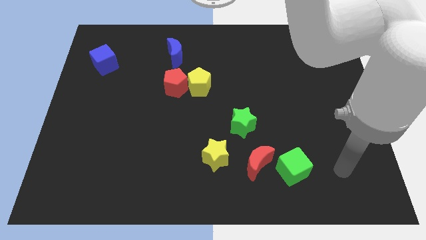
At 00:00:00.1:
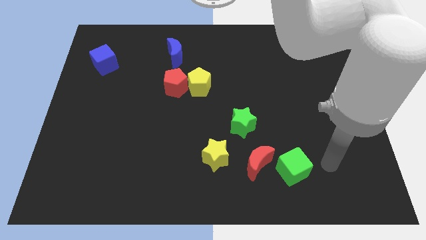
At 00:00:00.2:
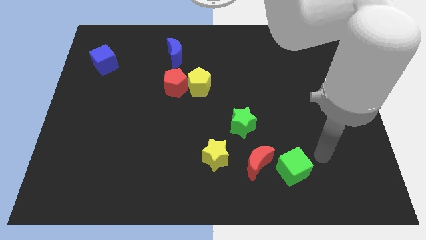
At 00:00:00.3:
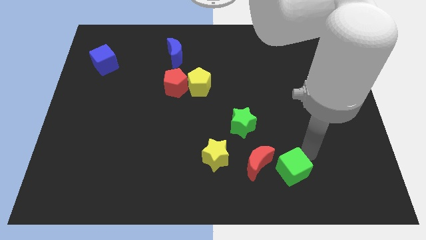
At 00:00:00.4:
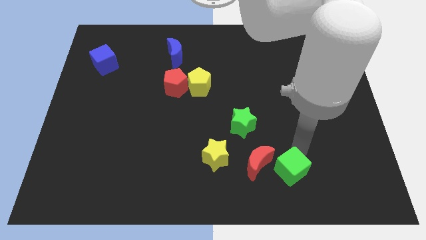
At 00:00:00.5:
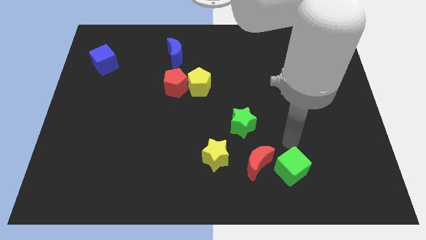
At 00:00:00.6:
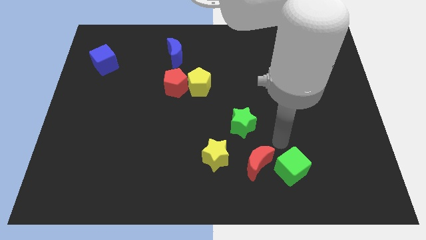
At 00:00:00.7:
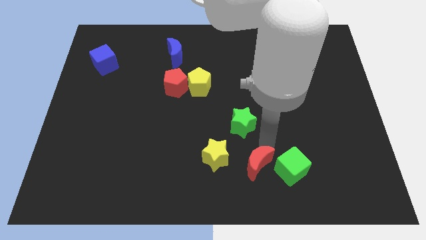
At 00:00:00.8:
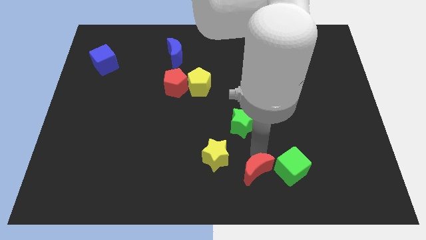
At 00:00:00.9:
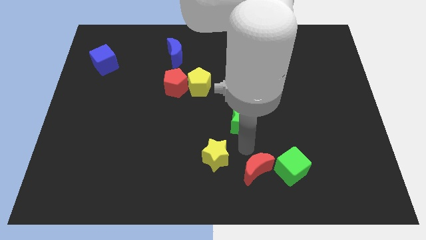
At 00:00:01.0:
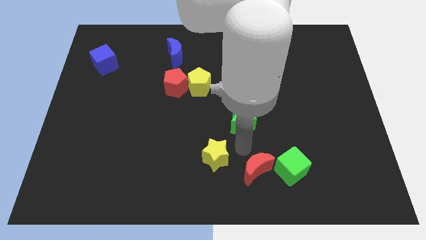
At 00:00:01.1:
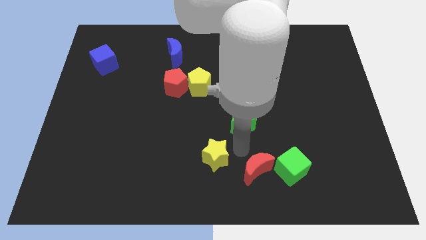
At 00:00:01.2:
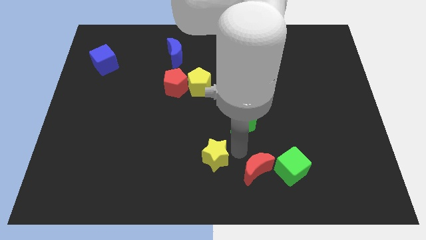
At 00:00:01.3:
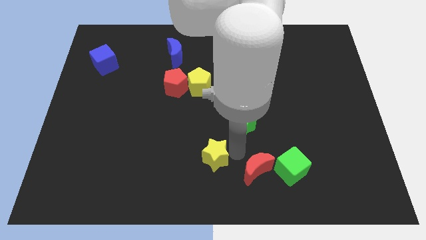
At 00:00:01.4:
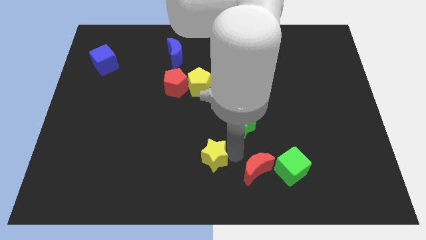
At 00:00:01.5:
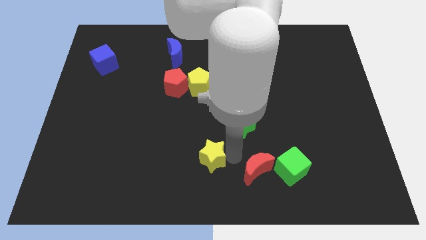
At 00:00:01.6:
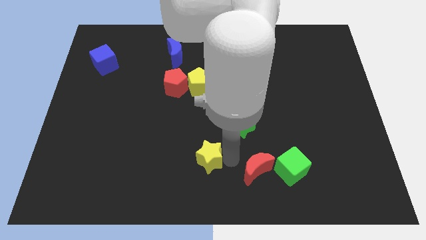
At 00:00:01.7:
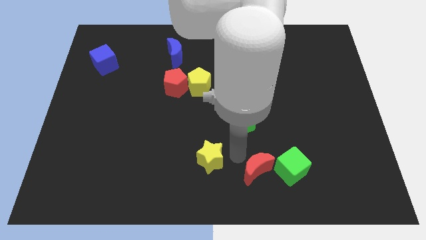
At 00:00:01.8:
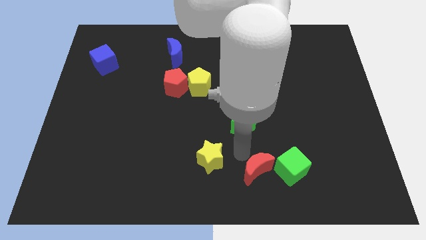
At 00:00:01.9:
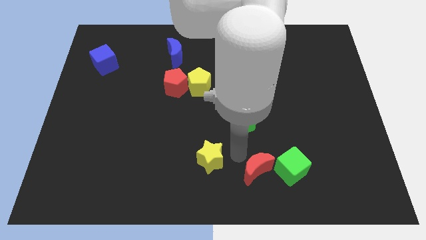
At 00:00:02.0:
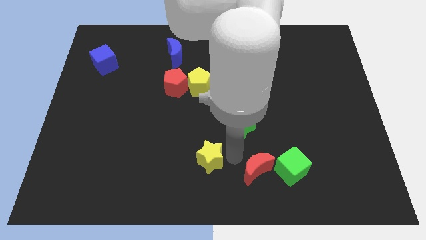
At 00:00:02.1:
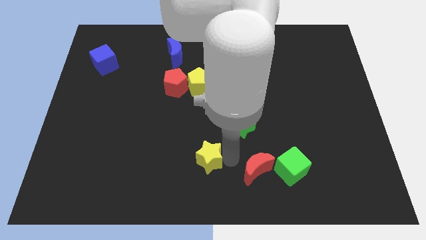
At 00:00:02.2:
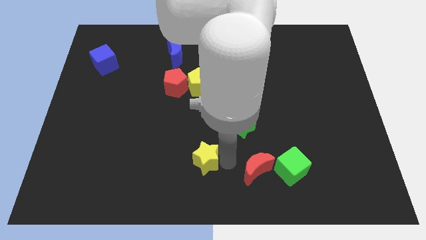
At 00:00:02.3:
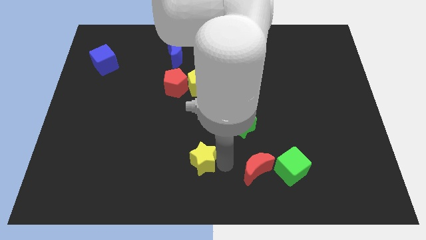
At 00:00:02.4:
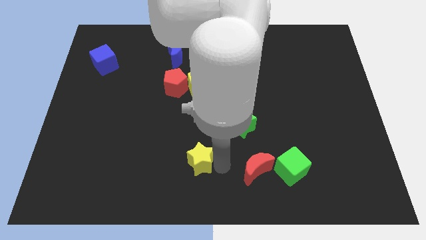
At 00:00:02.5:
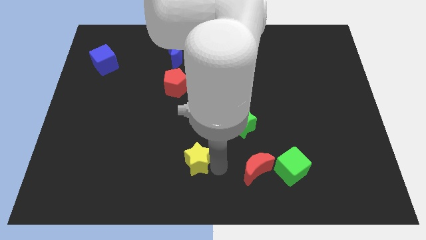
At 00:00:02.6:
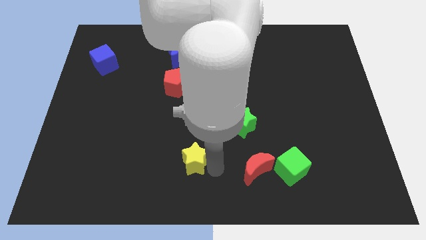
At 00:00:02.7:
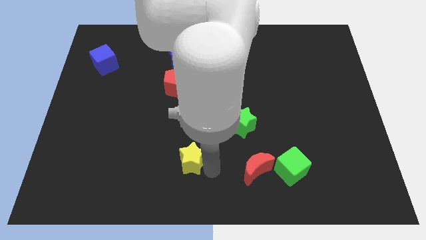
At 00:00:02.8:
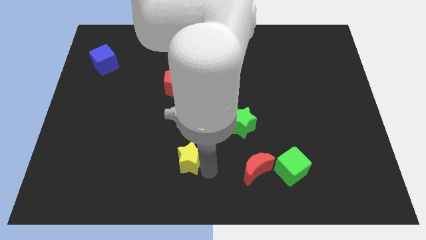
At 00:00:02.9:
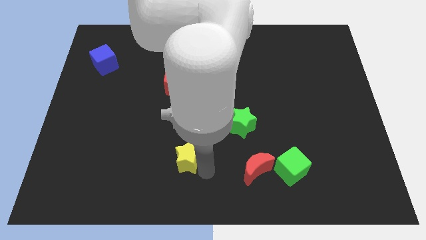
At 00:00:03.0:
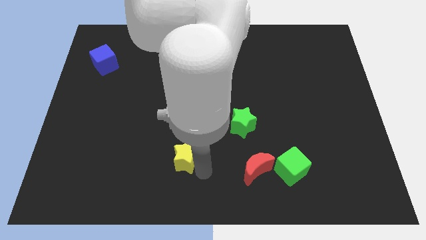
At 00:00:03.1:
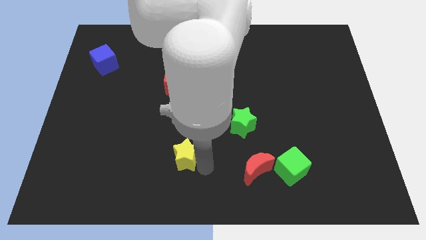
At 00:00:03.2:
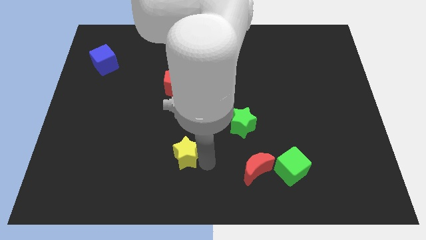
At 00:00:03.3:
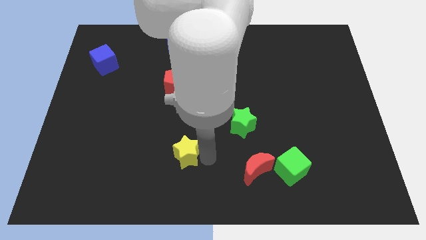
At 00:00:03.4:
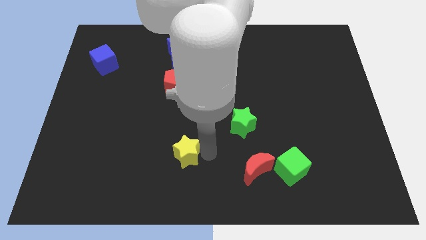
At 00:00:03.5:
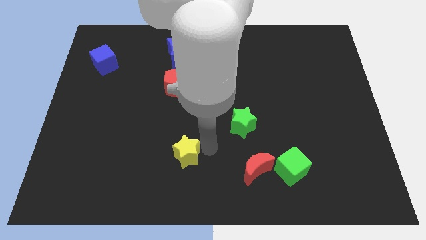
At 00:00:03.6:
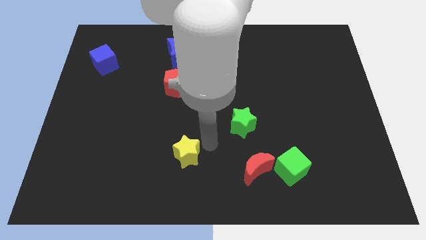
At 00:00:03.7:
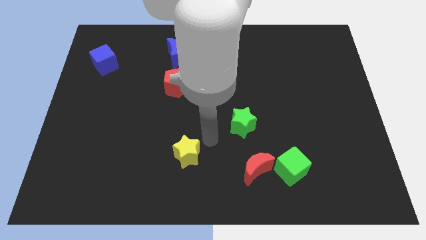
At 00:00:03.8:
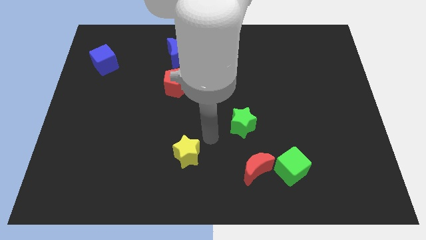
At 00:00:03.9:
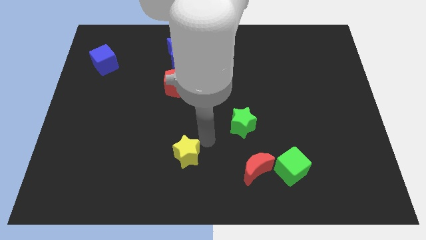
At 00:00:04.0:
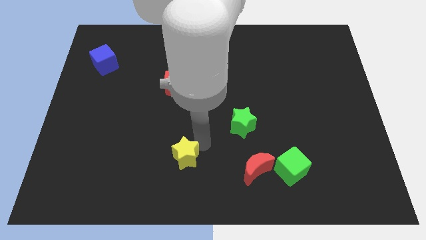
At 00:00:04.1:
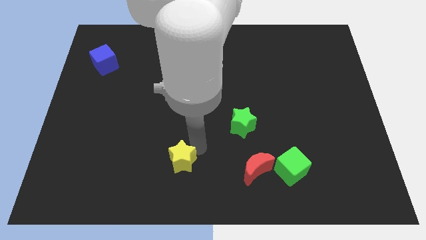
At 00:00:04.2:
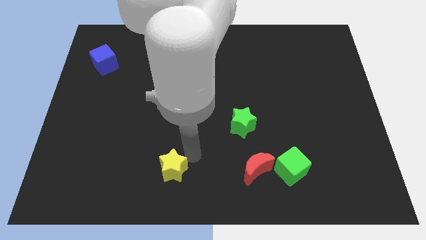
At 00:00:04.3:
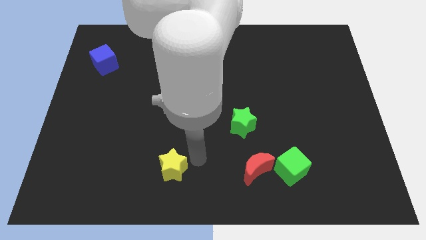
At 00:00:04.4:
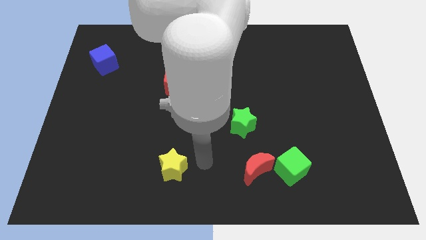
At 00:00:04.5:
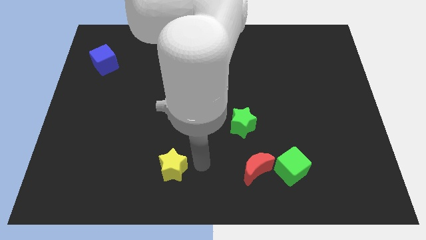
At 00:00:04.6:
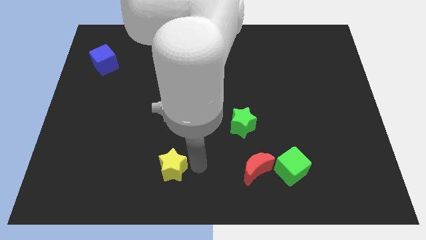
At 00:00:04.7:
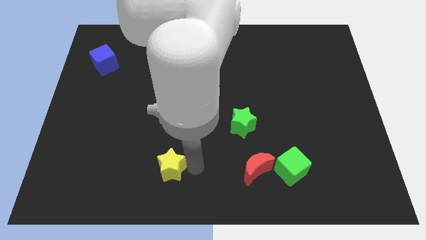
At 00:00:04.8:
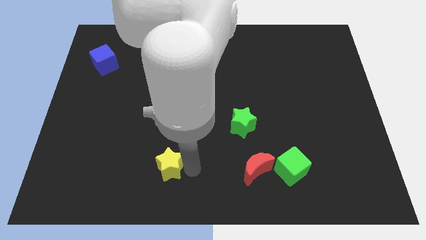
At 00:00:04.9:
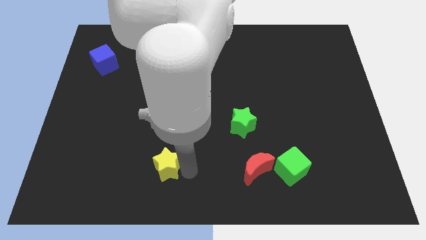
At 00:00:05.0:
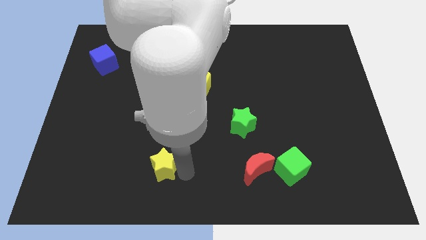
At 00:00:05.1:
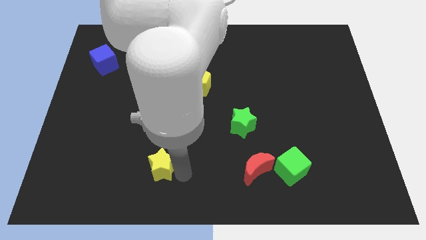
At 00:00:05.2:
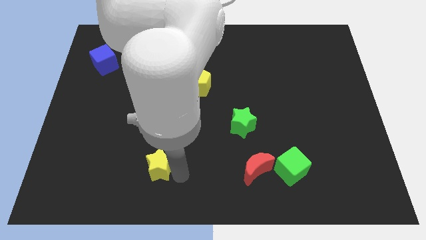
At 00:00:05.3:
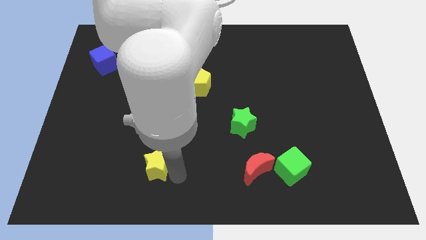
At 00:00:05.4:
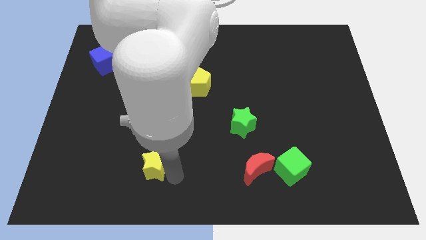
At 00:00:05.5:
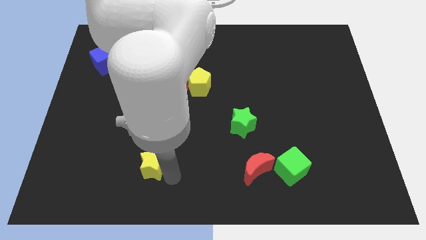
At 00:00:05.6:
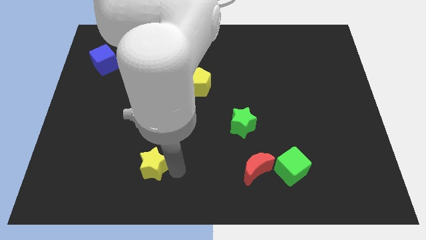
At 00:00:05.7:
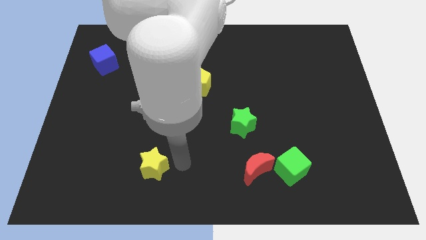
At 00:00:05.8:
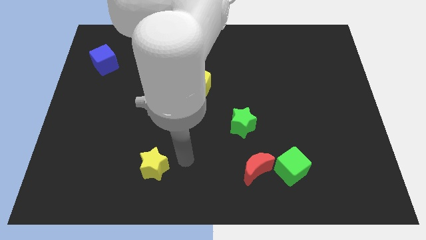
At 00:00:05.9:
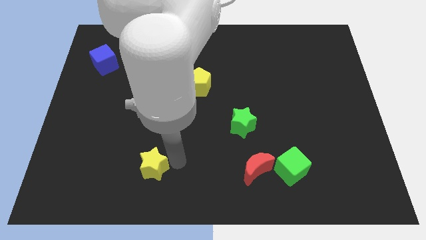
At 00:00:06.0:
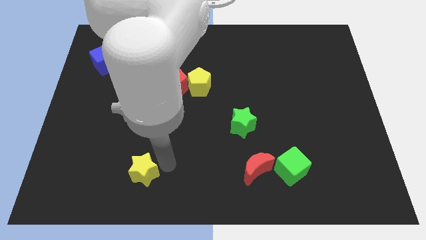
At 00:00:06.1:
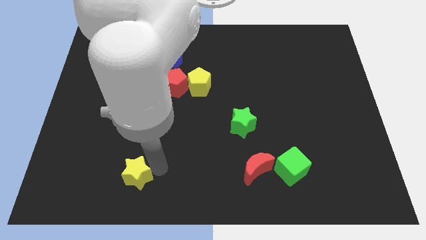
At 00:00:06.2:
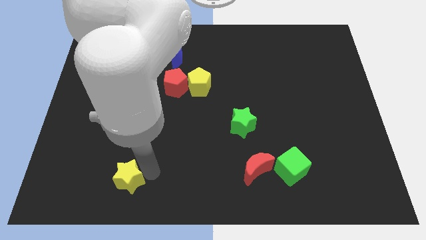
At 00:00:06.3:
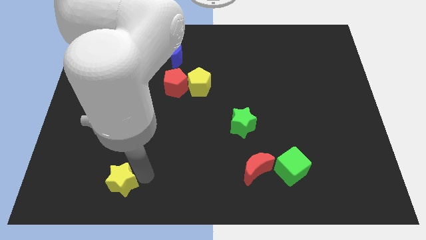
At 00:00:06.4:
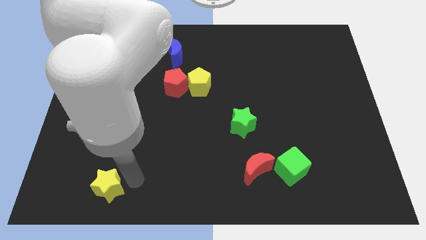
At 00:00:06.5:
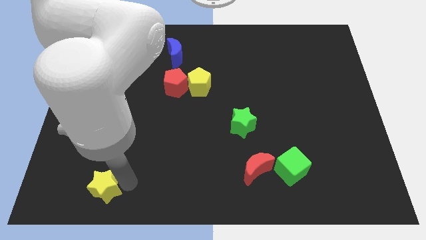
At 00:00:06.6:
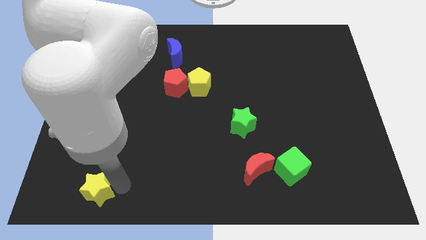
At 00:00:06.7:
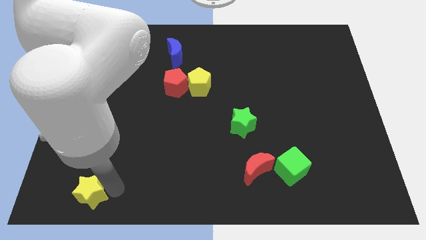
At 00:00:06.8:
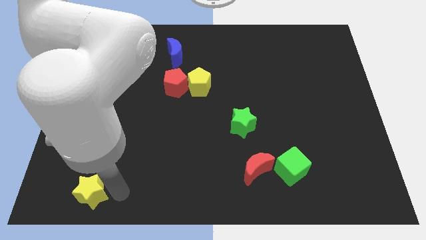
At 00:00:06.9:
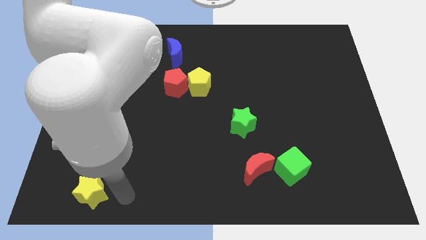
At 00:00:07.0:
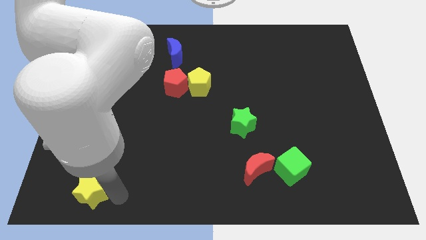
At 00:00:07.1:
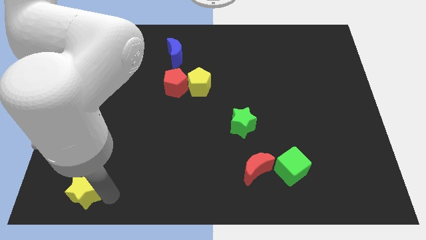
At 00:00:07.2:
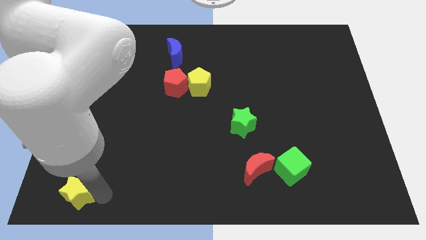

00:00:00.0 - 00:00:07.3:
slide the yellow star to the bottom left of the board
